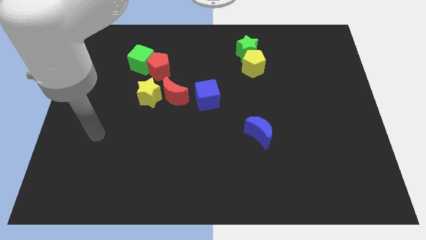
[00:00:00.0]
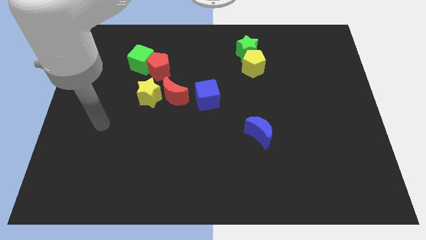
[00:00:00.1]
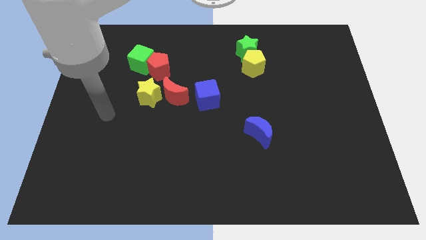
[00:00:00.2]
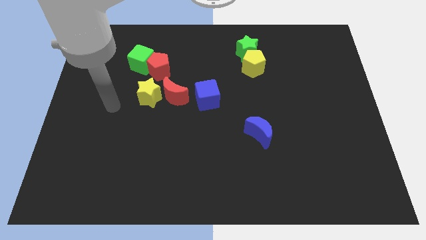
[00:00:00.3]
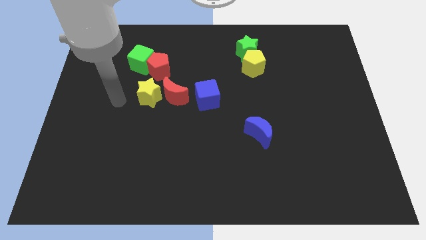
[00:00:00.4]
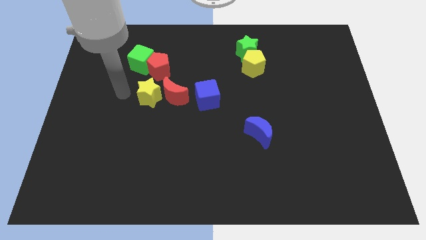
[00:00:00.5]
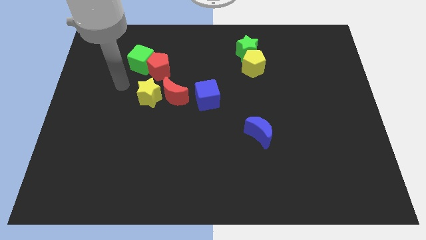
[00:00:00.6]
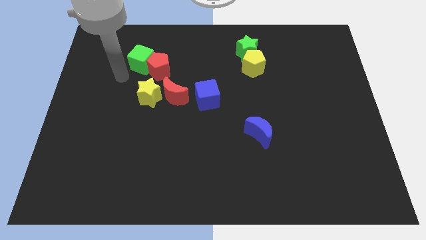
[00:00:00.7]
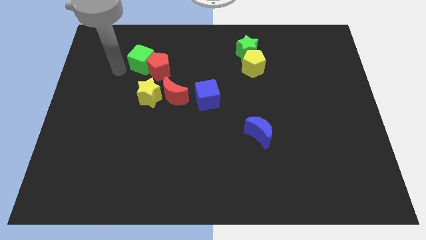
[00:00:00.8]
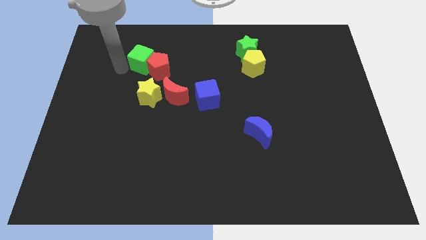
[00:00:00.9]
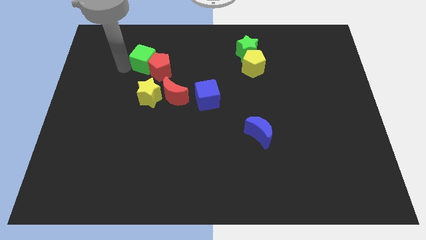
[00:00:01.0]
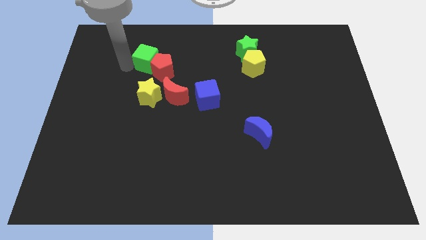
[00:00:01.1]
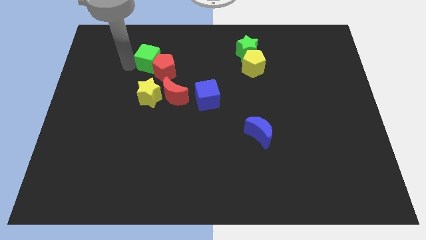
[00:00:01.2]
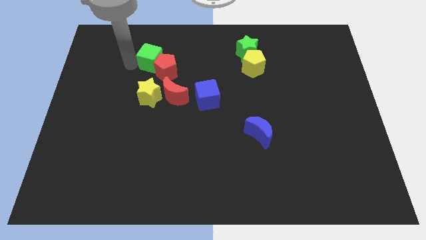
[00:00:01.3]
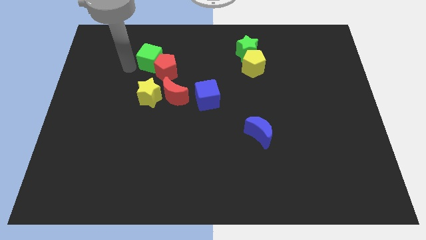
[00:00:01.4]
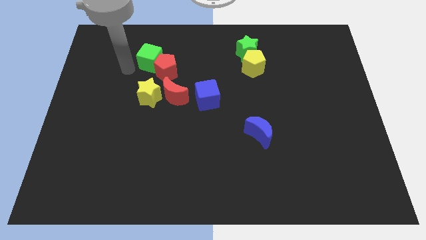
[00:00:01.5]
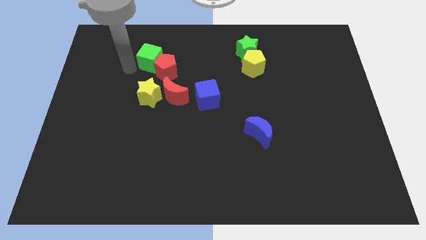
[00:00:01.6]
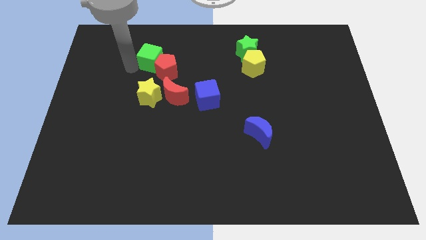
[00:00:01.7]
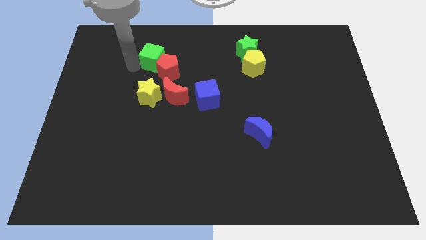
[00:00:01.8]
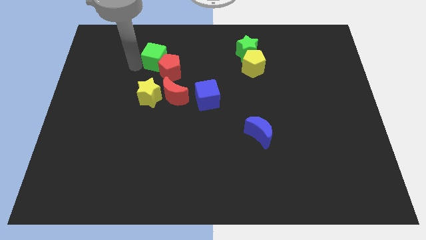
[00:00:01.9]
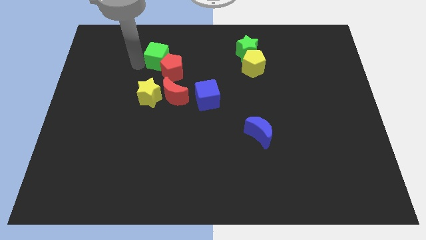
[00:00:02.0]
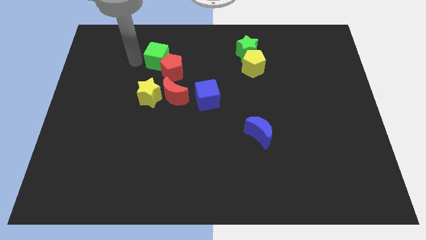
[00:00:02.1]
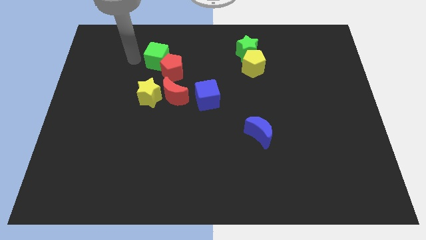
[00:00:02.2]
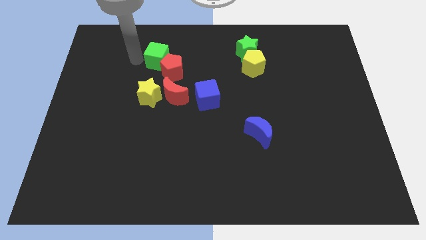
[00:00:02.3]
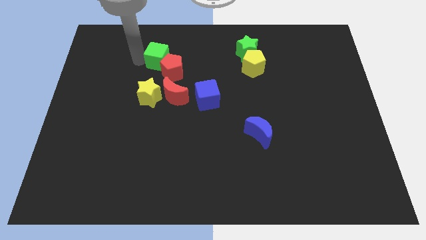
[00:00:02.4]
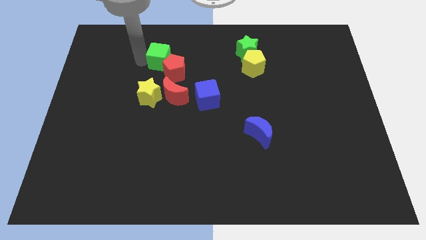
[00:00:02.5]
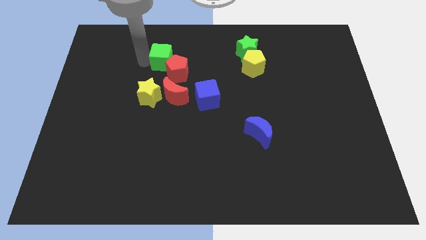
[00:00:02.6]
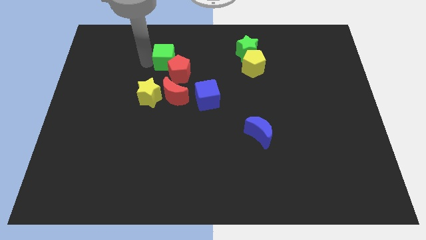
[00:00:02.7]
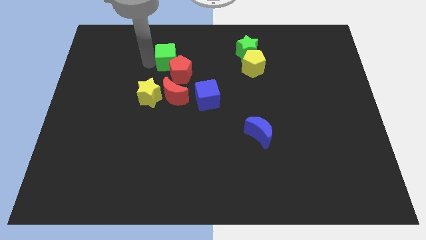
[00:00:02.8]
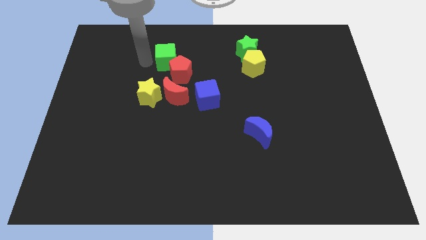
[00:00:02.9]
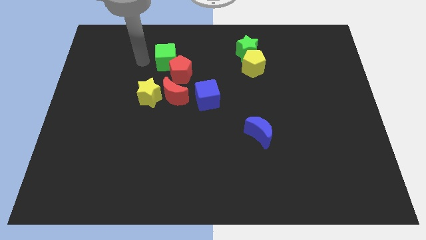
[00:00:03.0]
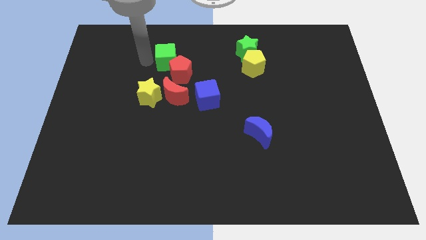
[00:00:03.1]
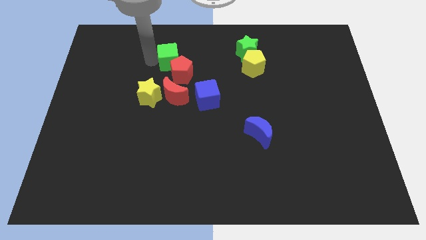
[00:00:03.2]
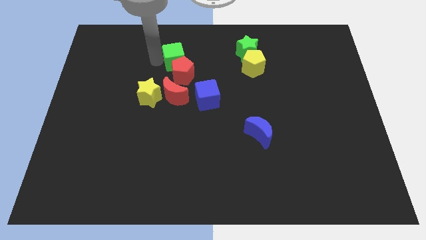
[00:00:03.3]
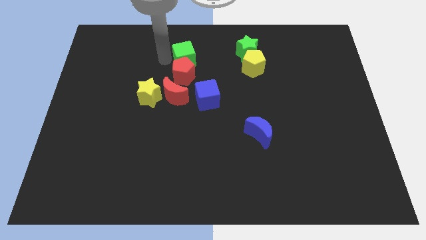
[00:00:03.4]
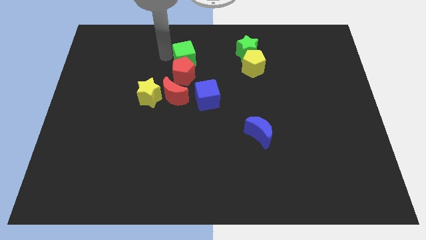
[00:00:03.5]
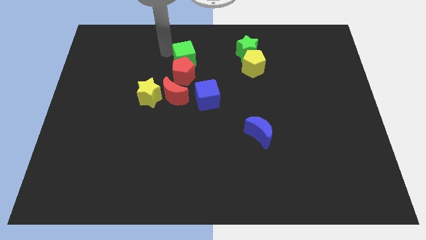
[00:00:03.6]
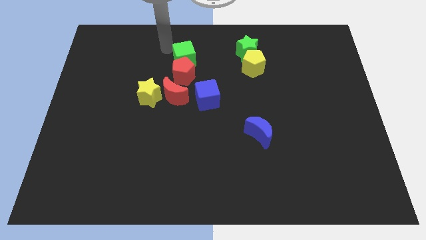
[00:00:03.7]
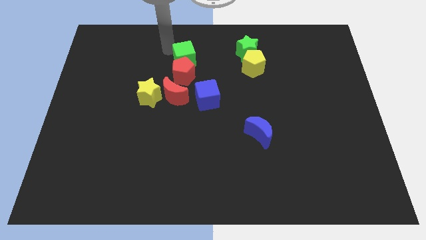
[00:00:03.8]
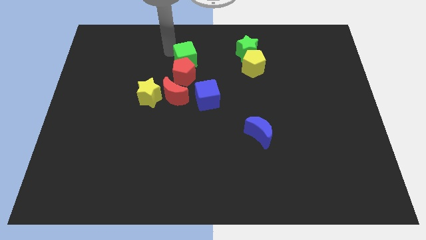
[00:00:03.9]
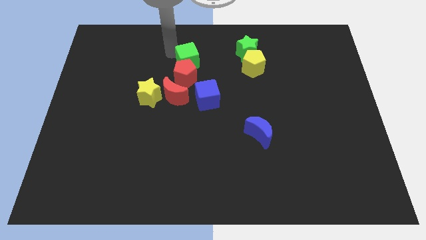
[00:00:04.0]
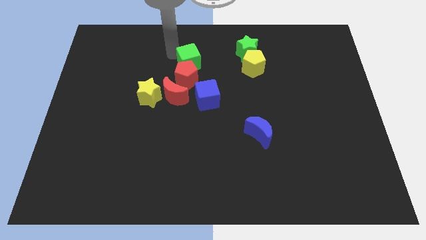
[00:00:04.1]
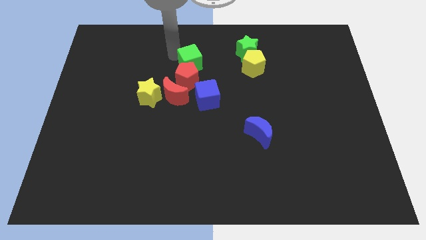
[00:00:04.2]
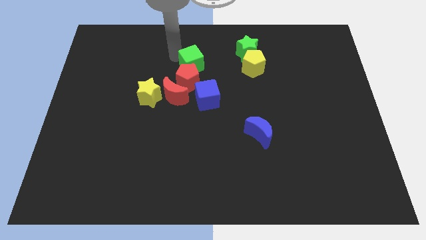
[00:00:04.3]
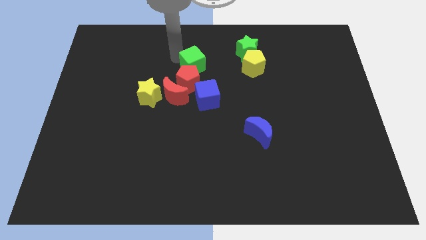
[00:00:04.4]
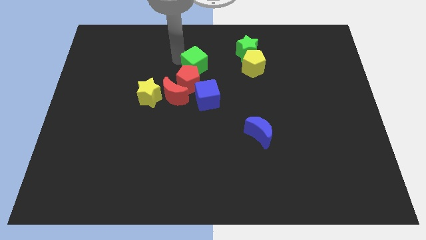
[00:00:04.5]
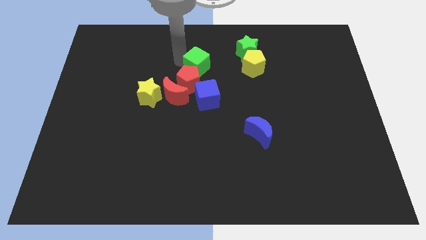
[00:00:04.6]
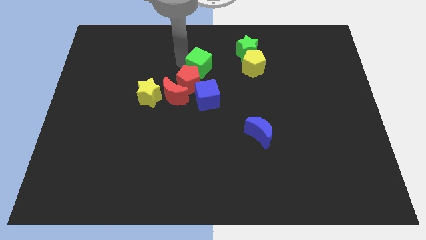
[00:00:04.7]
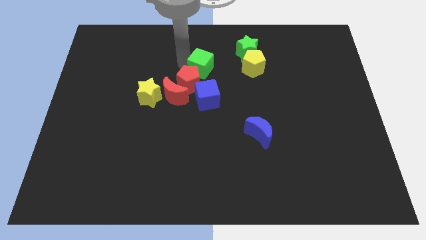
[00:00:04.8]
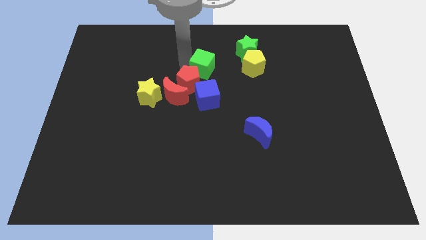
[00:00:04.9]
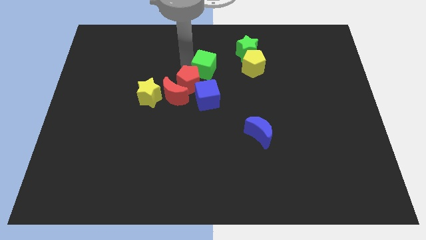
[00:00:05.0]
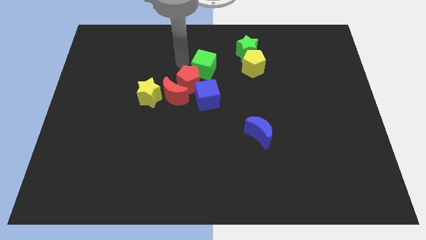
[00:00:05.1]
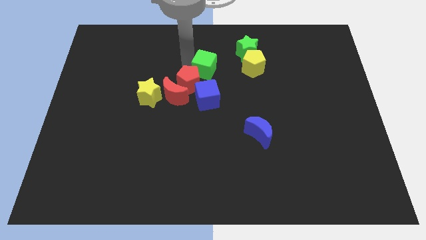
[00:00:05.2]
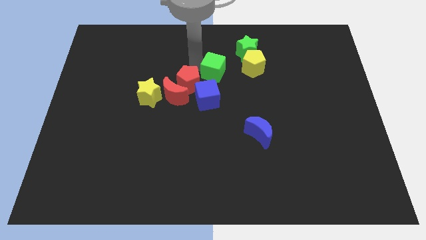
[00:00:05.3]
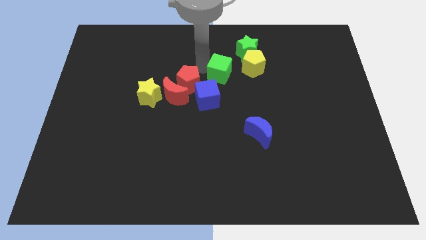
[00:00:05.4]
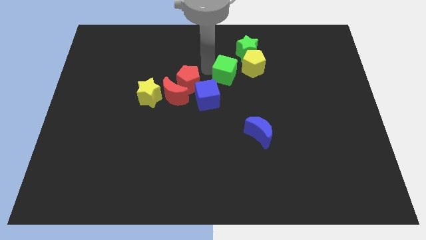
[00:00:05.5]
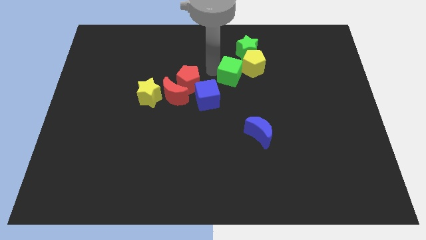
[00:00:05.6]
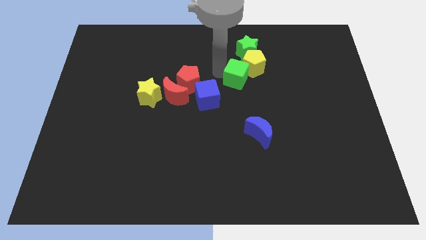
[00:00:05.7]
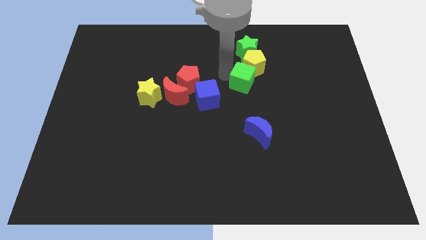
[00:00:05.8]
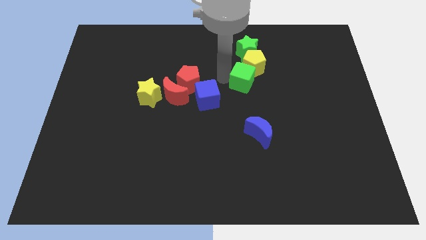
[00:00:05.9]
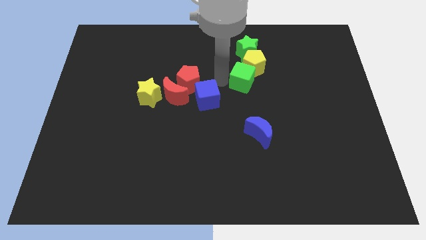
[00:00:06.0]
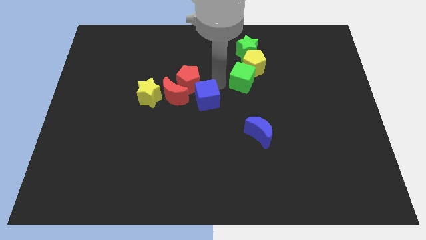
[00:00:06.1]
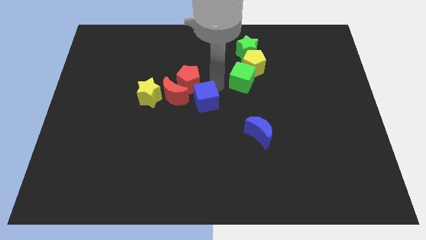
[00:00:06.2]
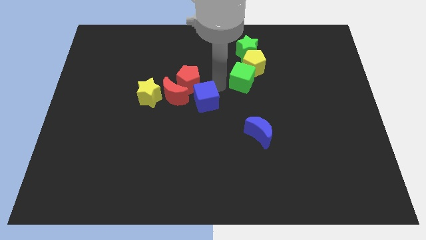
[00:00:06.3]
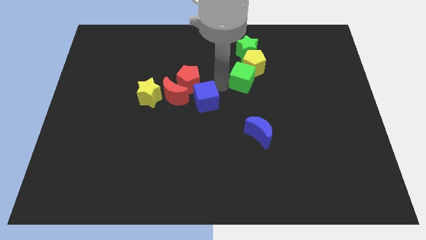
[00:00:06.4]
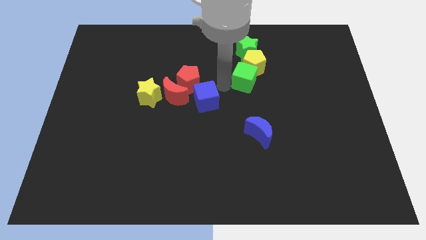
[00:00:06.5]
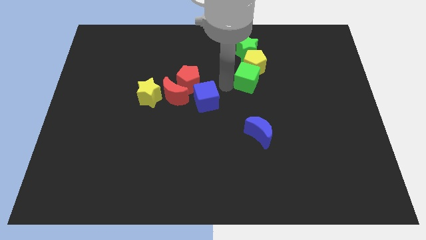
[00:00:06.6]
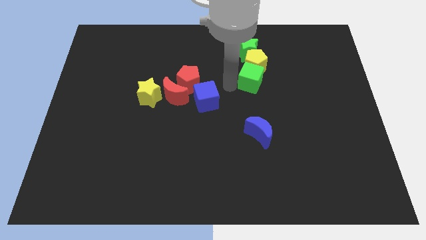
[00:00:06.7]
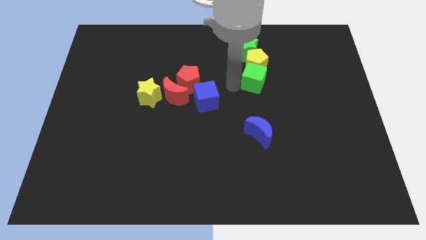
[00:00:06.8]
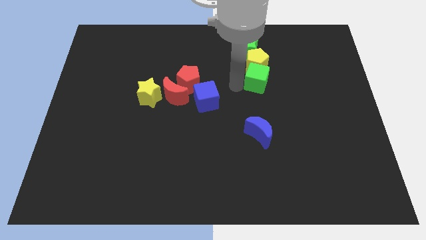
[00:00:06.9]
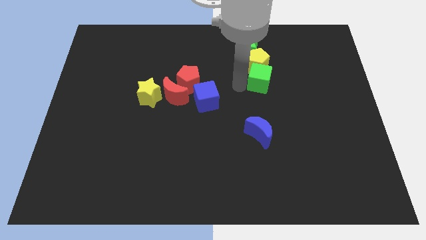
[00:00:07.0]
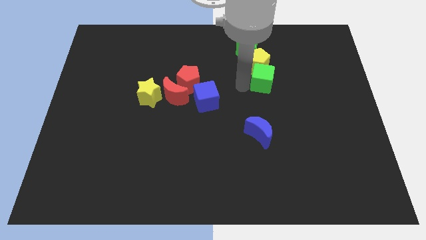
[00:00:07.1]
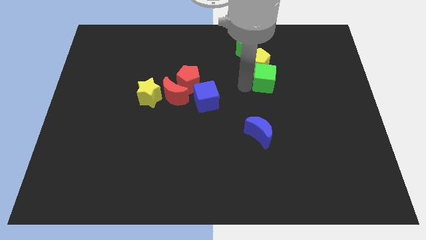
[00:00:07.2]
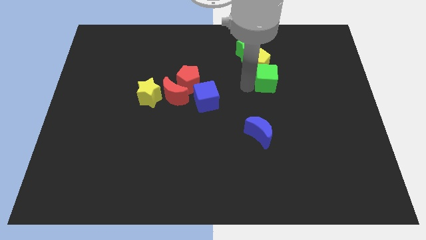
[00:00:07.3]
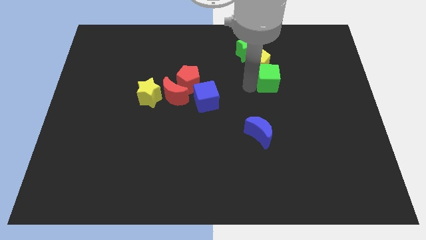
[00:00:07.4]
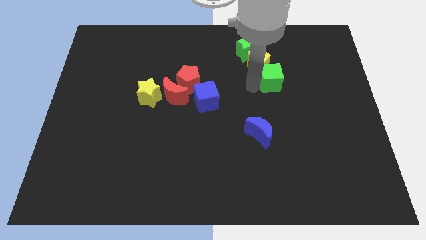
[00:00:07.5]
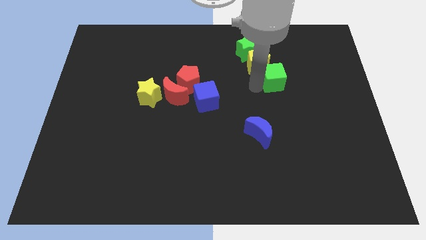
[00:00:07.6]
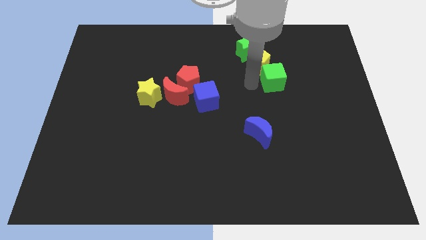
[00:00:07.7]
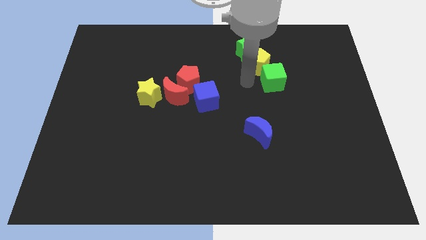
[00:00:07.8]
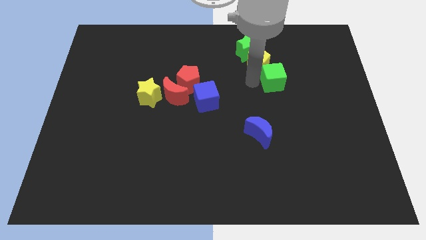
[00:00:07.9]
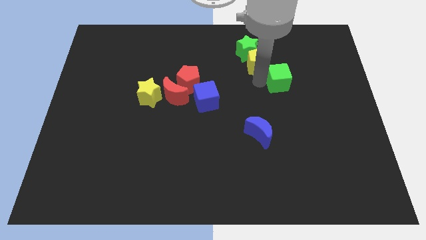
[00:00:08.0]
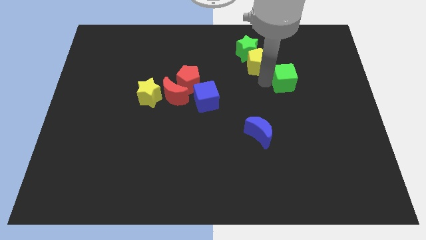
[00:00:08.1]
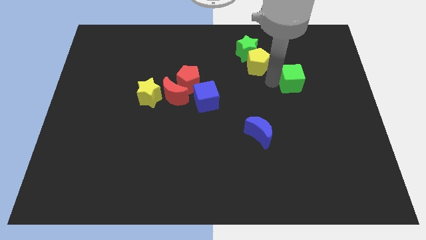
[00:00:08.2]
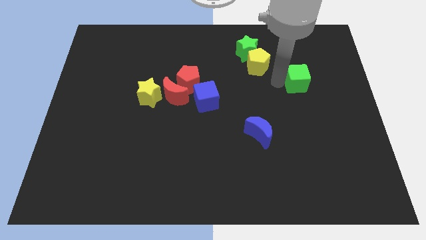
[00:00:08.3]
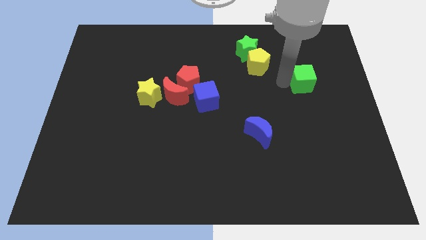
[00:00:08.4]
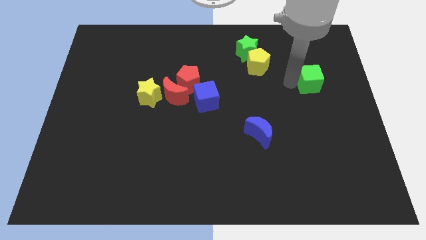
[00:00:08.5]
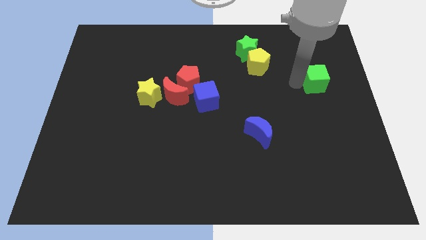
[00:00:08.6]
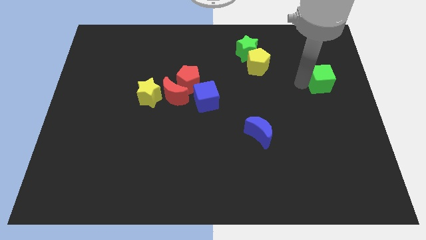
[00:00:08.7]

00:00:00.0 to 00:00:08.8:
move the green cube to the right side of the board
